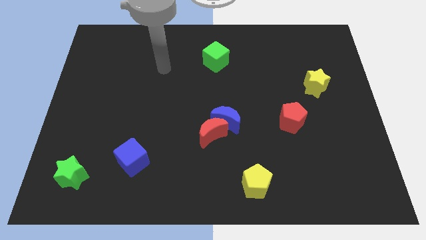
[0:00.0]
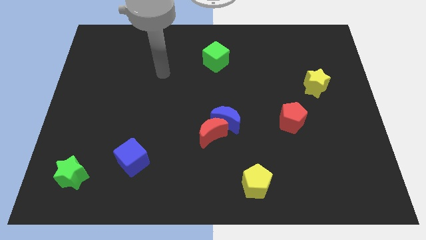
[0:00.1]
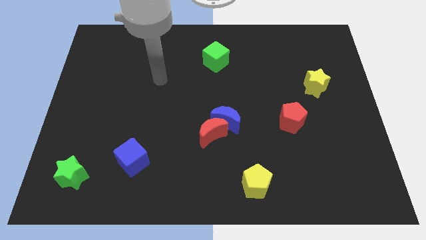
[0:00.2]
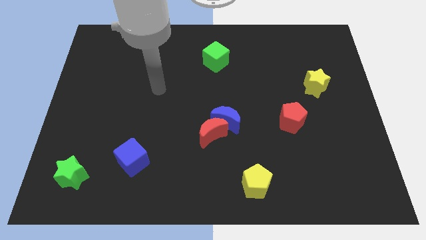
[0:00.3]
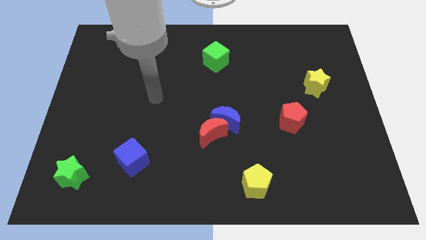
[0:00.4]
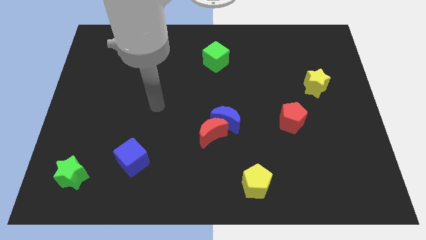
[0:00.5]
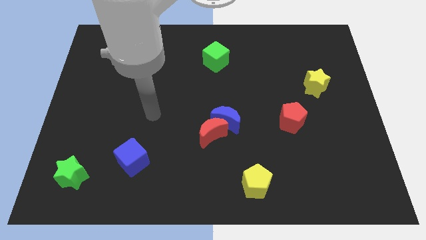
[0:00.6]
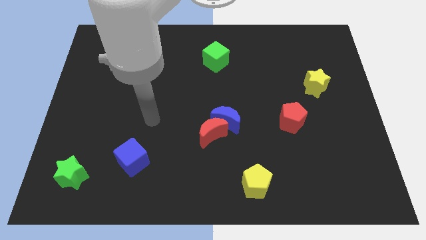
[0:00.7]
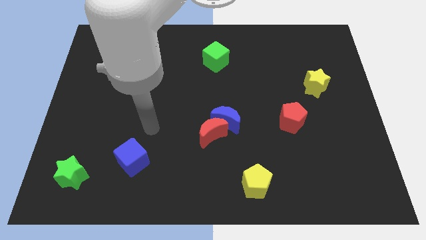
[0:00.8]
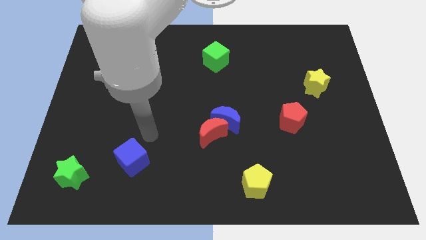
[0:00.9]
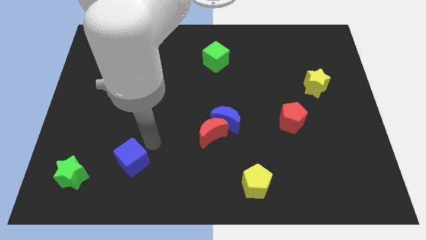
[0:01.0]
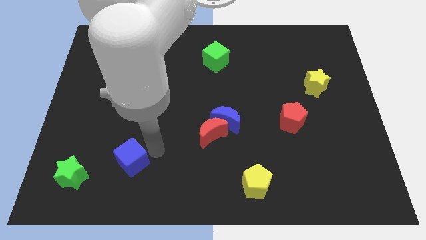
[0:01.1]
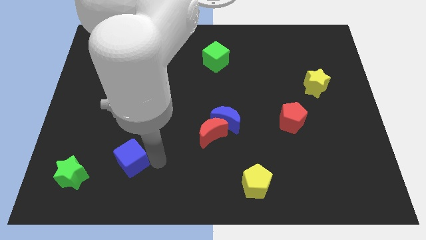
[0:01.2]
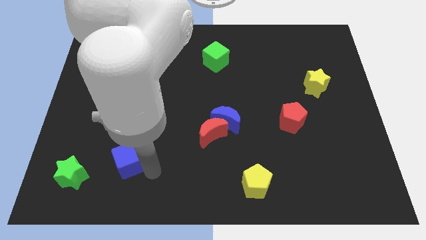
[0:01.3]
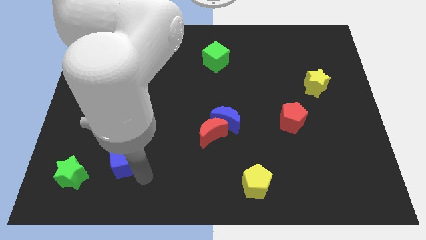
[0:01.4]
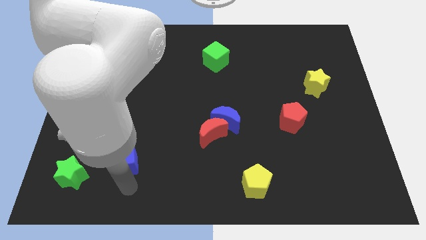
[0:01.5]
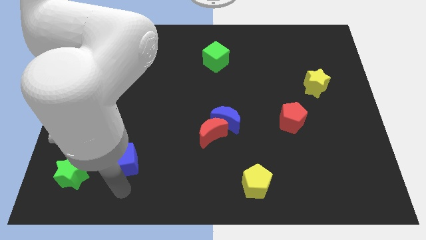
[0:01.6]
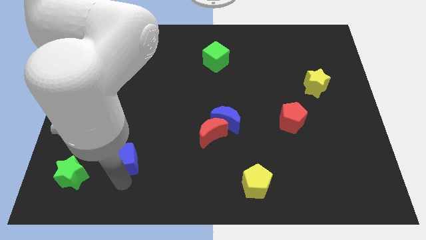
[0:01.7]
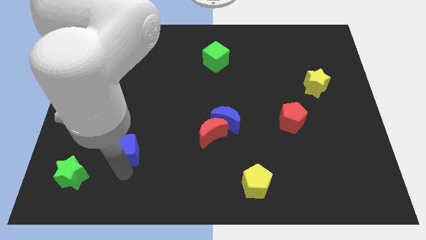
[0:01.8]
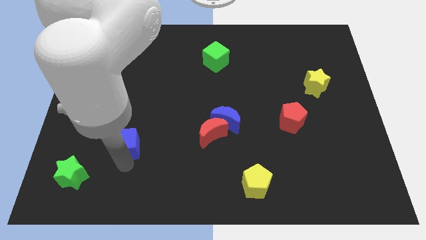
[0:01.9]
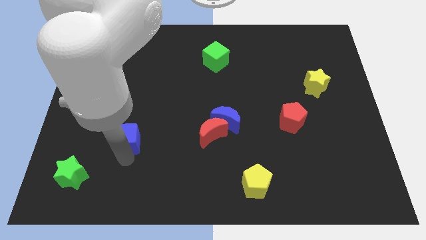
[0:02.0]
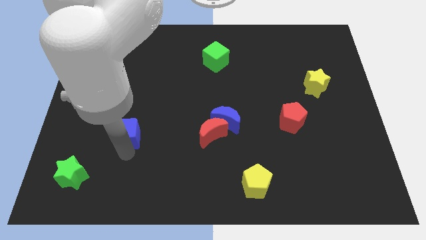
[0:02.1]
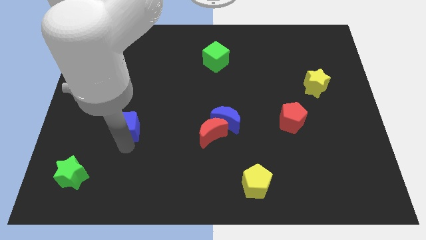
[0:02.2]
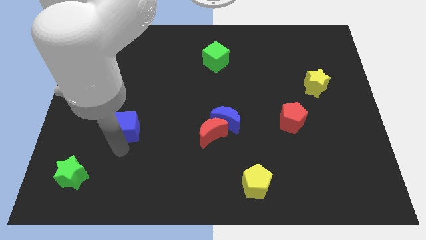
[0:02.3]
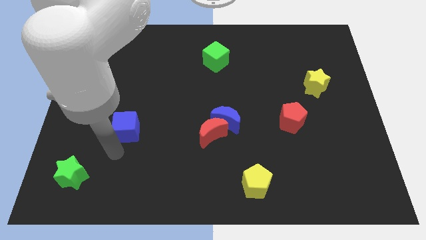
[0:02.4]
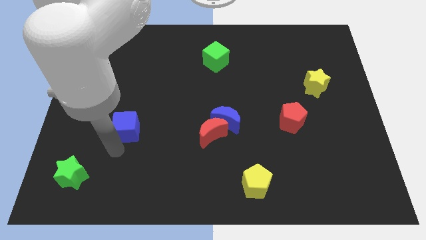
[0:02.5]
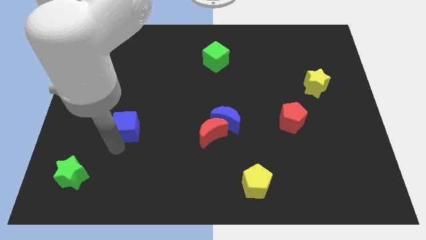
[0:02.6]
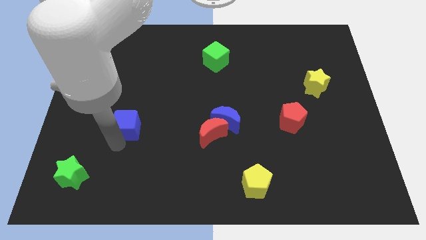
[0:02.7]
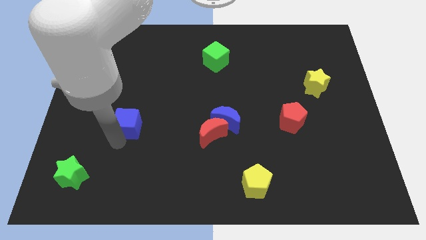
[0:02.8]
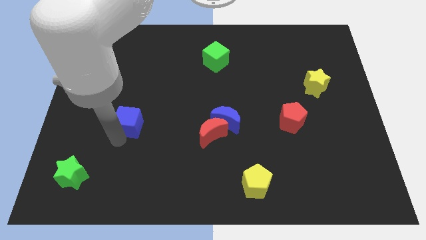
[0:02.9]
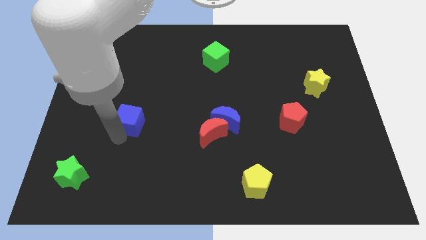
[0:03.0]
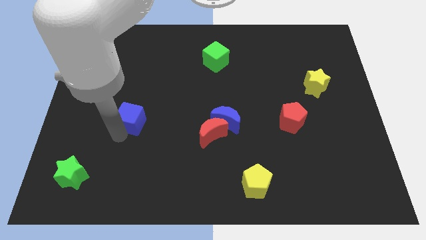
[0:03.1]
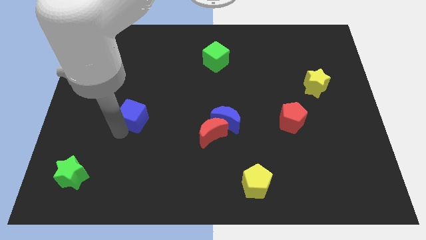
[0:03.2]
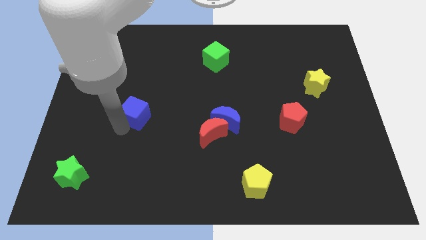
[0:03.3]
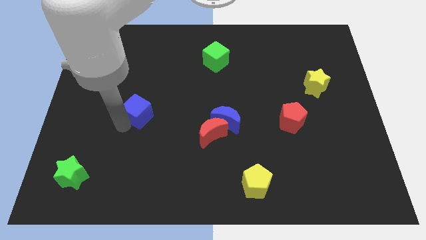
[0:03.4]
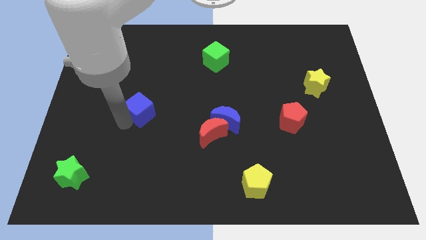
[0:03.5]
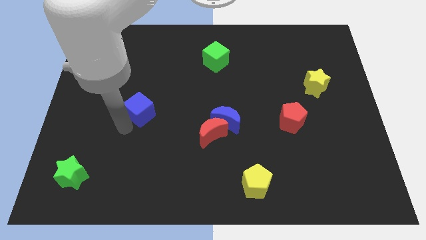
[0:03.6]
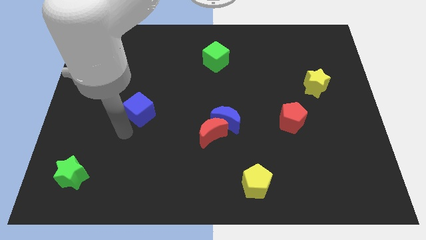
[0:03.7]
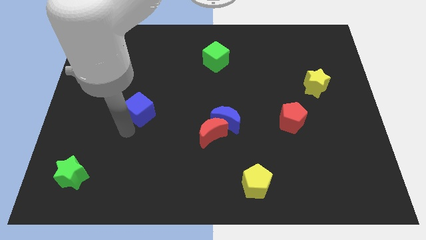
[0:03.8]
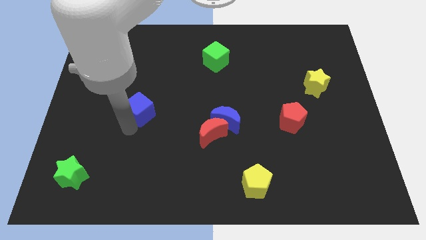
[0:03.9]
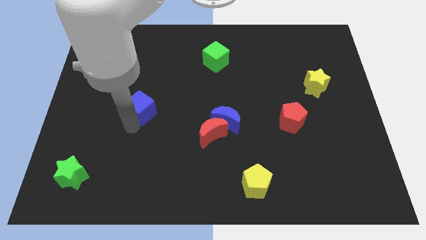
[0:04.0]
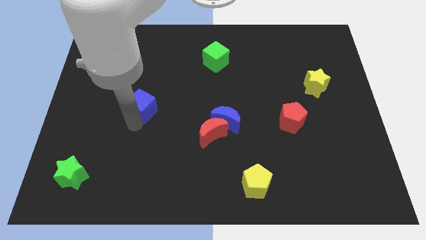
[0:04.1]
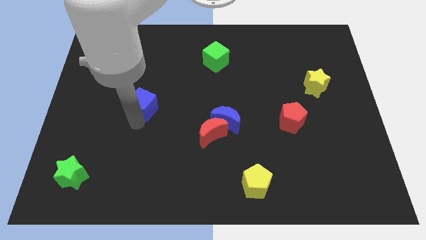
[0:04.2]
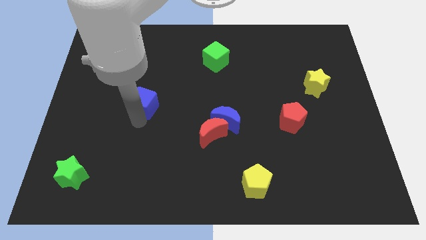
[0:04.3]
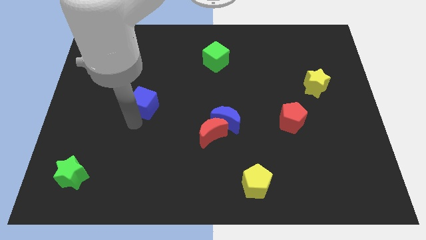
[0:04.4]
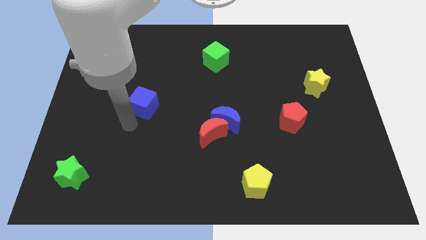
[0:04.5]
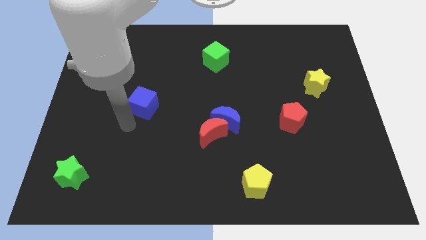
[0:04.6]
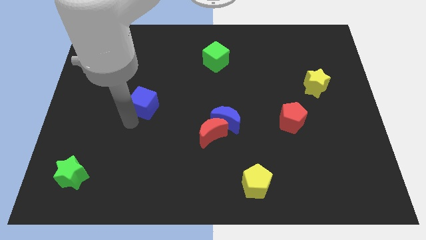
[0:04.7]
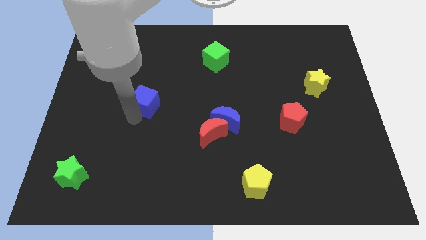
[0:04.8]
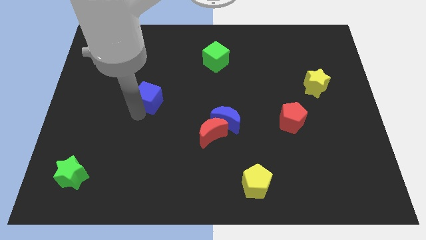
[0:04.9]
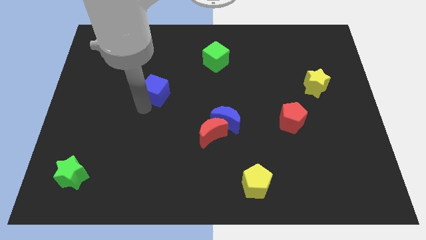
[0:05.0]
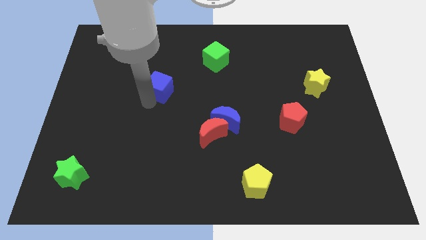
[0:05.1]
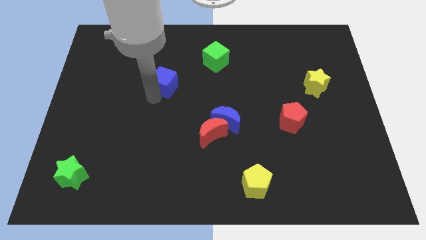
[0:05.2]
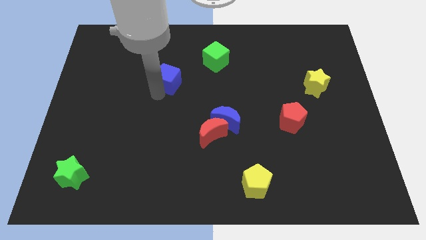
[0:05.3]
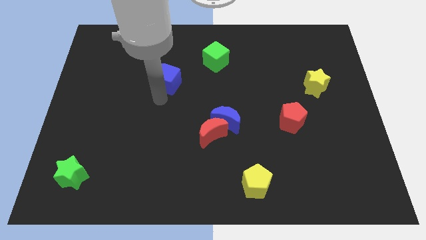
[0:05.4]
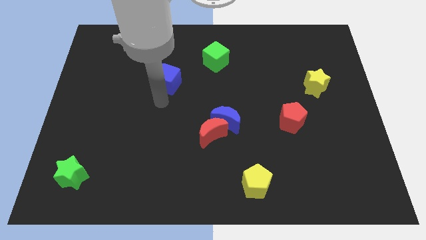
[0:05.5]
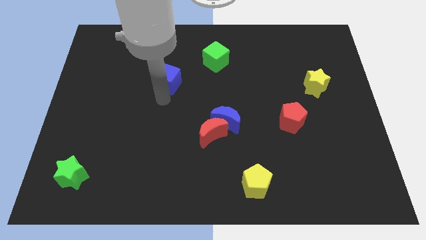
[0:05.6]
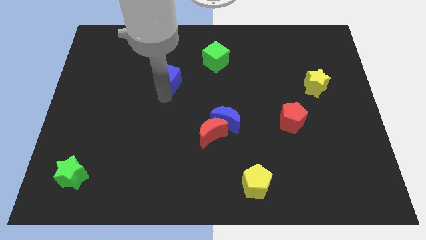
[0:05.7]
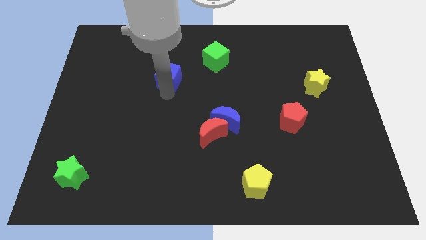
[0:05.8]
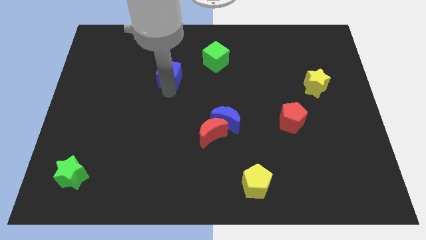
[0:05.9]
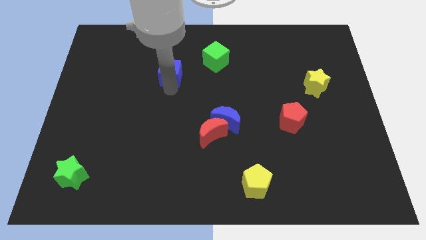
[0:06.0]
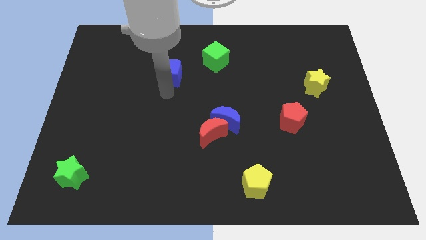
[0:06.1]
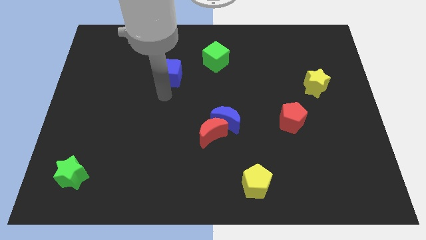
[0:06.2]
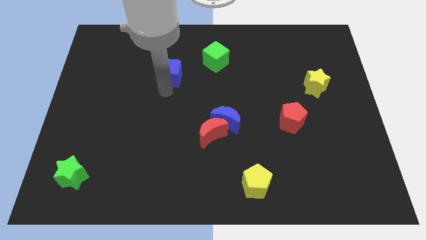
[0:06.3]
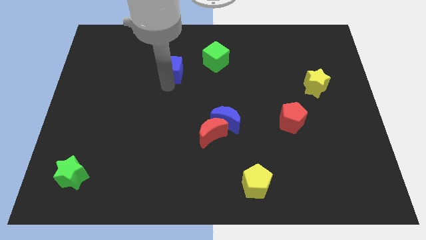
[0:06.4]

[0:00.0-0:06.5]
move the blue cube to the left side of the green cube

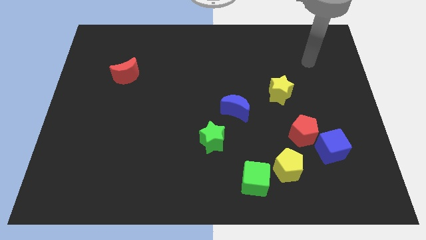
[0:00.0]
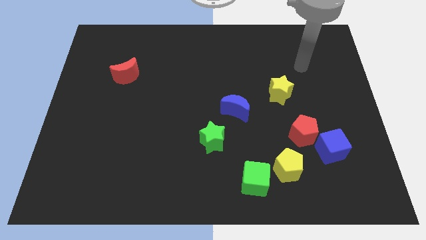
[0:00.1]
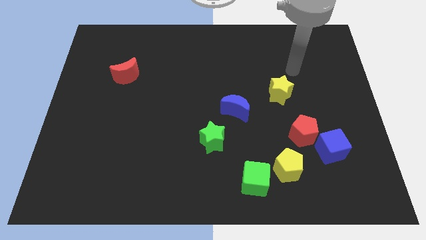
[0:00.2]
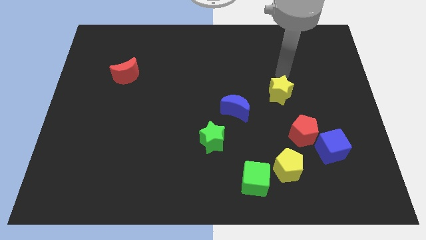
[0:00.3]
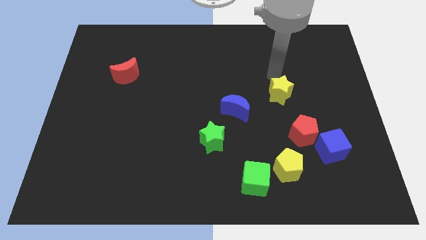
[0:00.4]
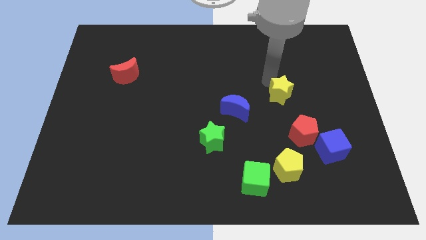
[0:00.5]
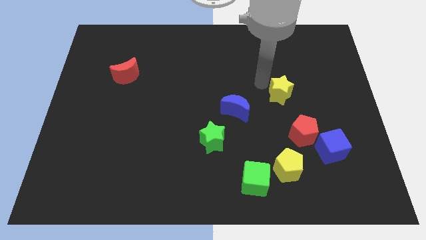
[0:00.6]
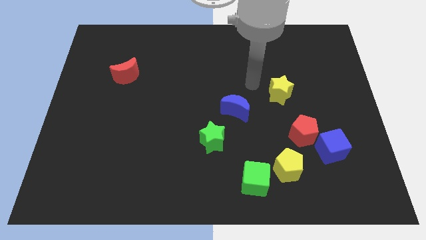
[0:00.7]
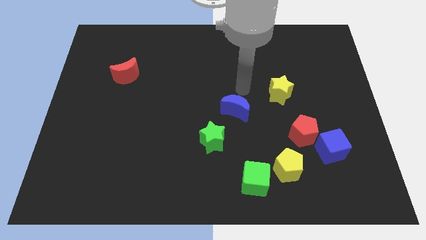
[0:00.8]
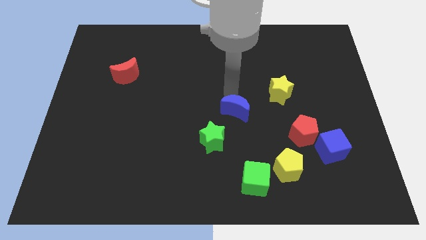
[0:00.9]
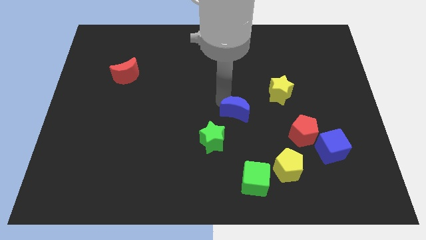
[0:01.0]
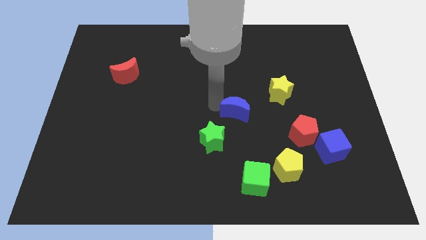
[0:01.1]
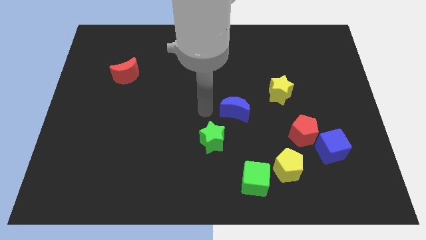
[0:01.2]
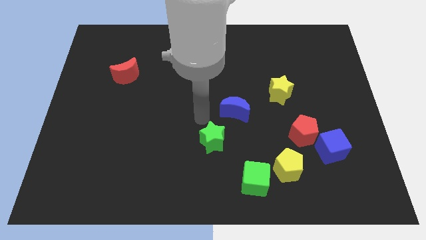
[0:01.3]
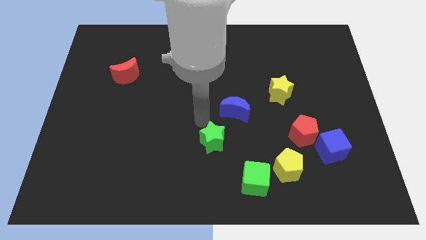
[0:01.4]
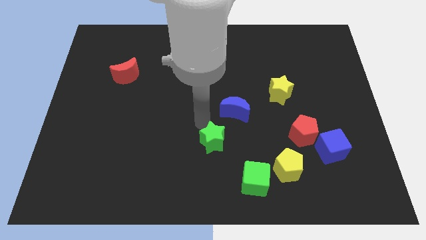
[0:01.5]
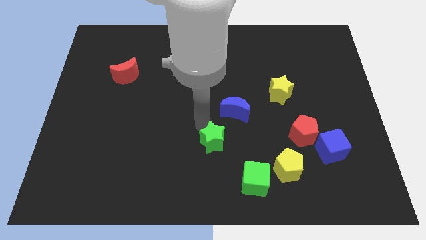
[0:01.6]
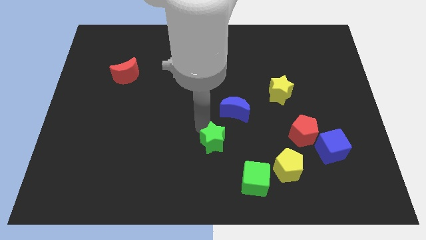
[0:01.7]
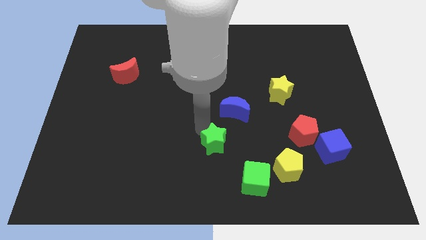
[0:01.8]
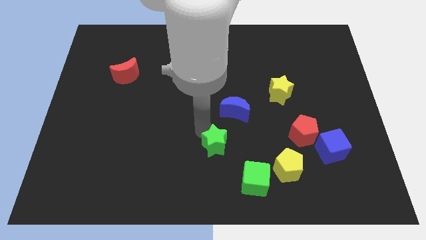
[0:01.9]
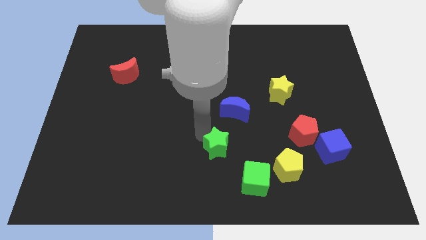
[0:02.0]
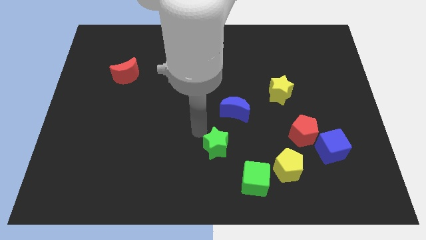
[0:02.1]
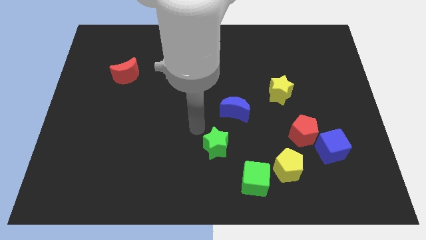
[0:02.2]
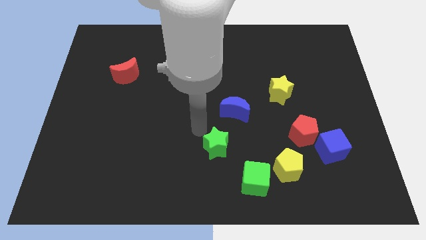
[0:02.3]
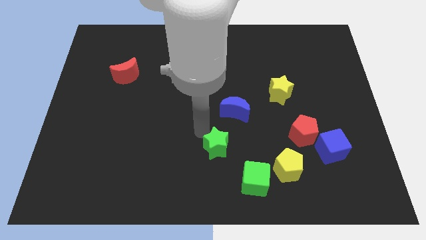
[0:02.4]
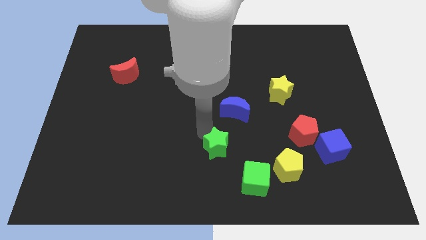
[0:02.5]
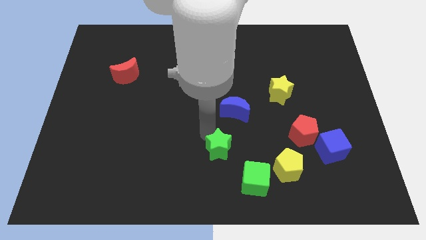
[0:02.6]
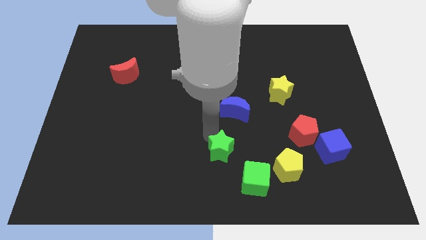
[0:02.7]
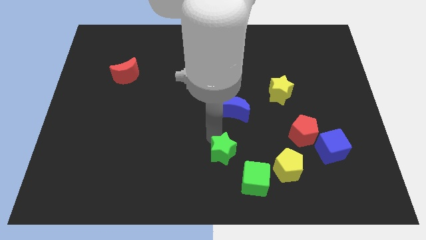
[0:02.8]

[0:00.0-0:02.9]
slide the green star just left of the yellow pentagon
